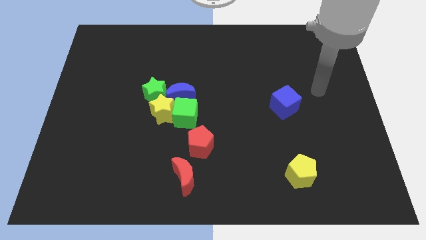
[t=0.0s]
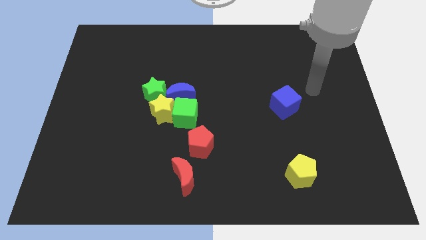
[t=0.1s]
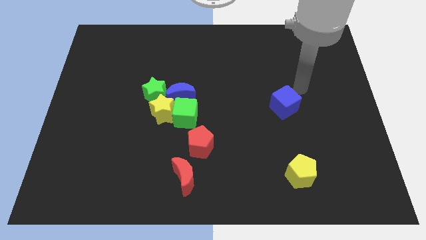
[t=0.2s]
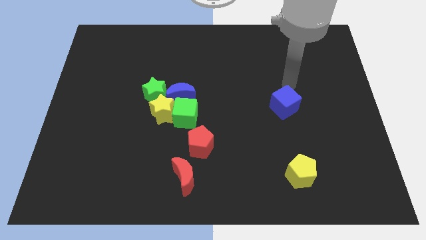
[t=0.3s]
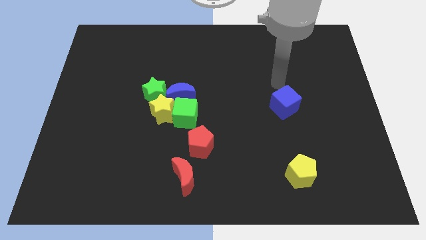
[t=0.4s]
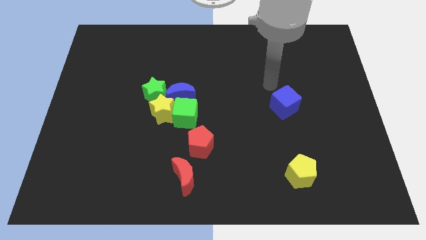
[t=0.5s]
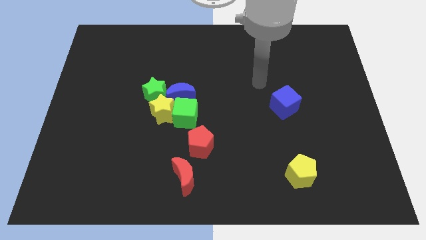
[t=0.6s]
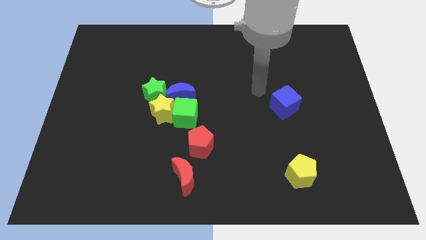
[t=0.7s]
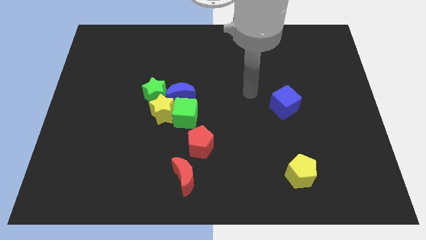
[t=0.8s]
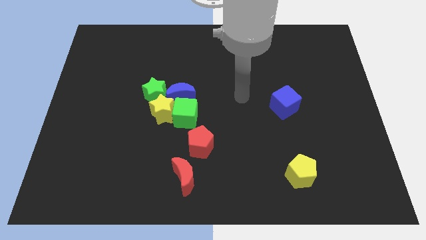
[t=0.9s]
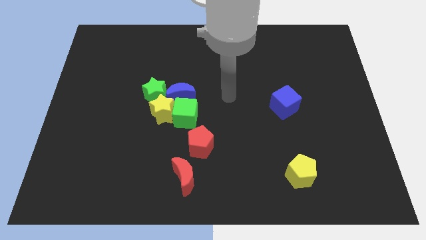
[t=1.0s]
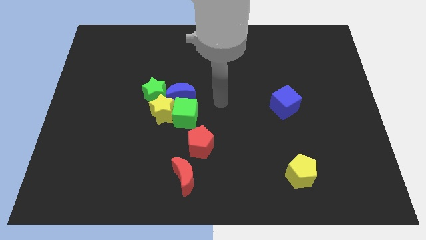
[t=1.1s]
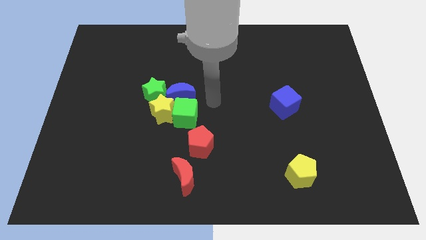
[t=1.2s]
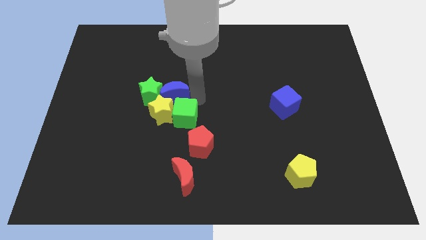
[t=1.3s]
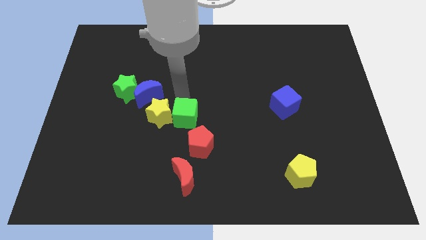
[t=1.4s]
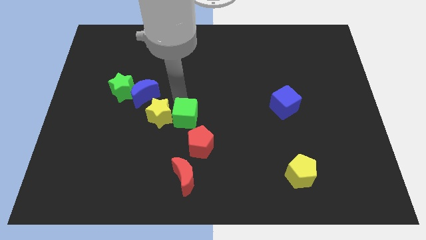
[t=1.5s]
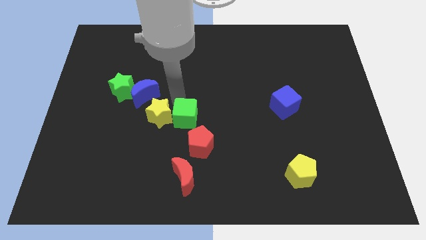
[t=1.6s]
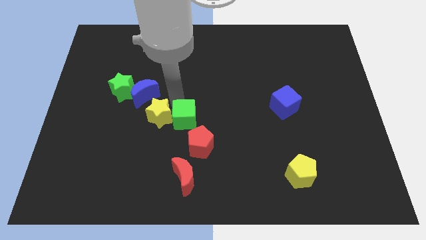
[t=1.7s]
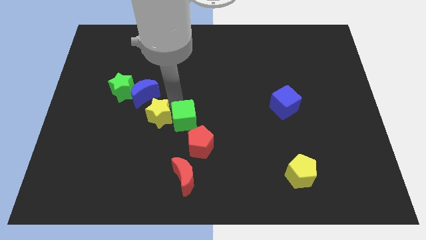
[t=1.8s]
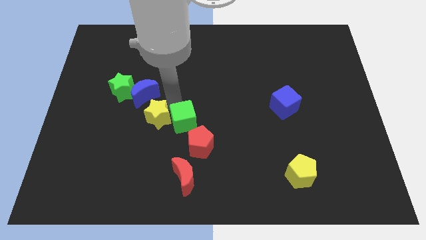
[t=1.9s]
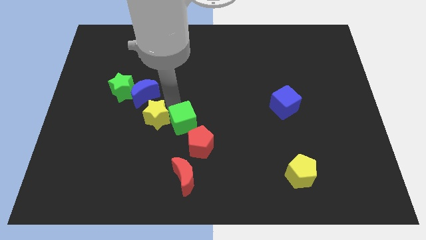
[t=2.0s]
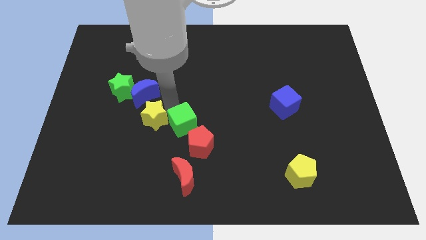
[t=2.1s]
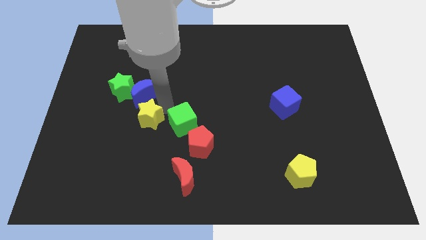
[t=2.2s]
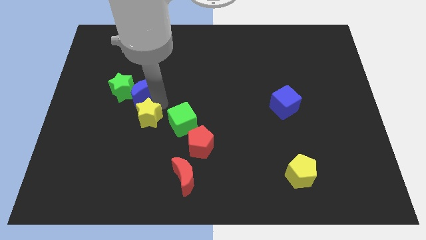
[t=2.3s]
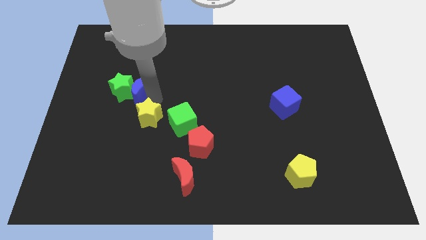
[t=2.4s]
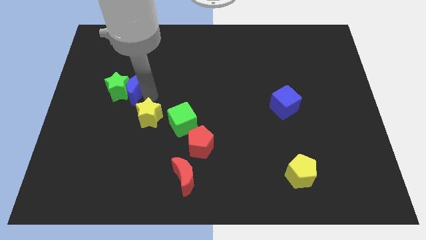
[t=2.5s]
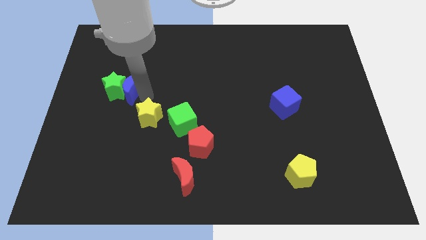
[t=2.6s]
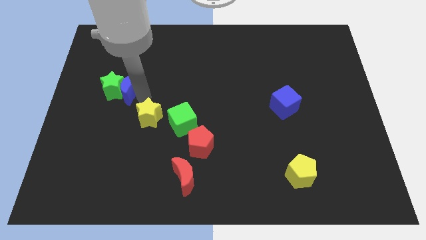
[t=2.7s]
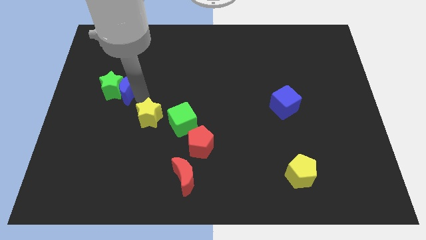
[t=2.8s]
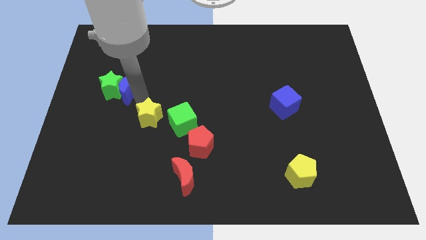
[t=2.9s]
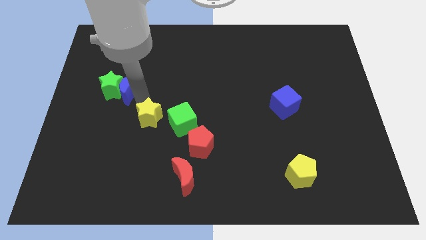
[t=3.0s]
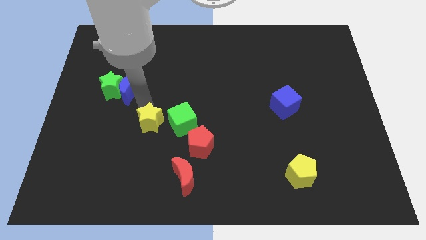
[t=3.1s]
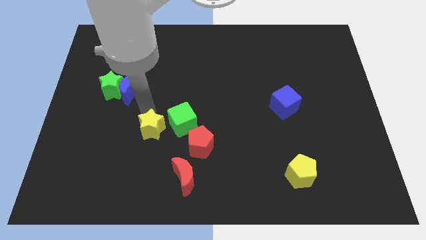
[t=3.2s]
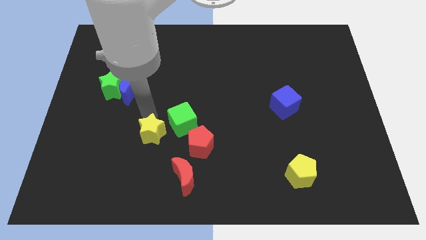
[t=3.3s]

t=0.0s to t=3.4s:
move the yellow star away from the green cube, green star, and blue moon

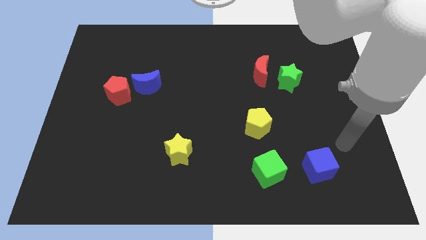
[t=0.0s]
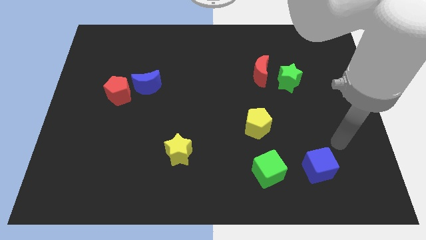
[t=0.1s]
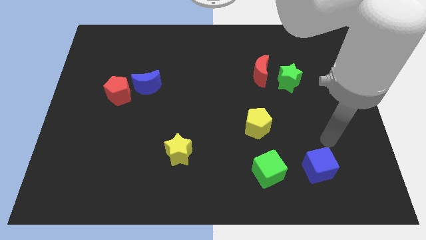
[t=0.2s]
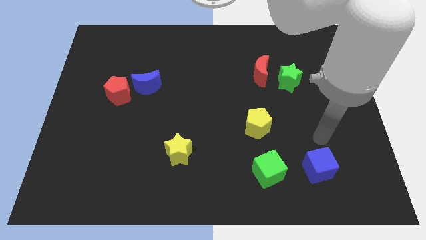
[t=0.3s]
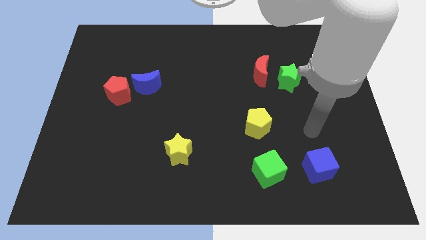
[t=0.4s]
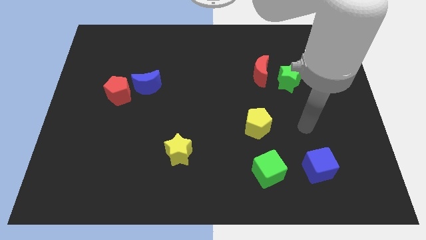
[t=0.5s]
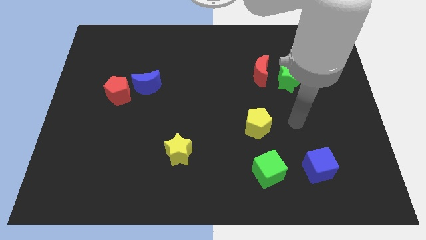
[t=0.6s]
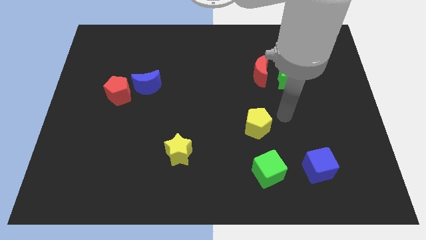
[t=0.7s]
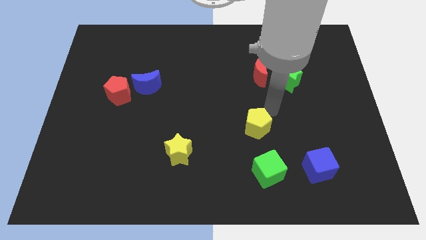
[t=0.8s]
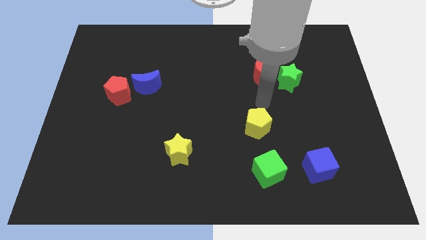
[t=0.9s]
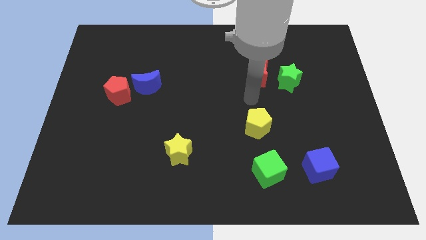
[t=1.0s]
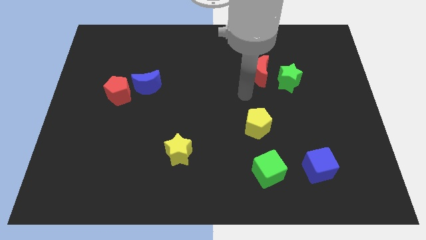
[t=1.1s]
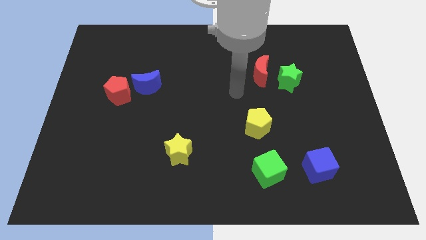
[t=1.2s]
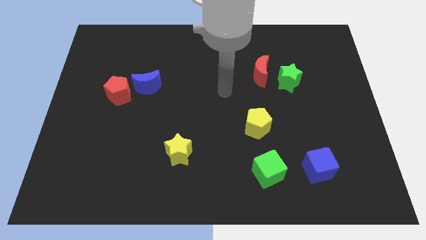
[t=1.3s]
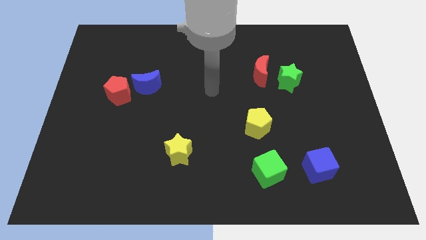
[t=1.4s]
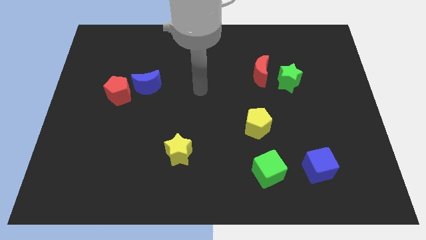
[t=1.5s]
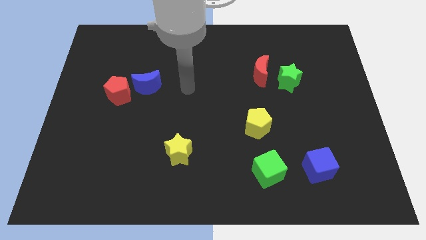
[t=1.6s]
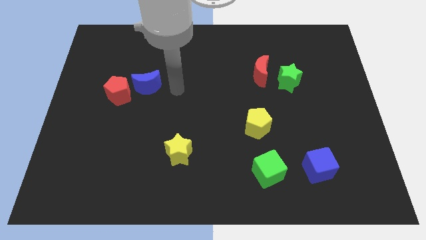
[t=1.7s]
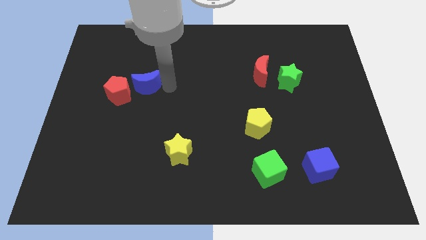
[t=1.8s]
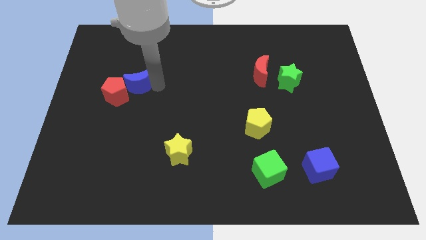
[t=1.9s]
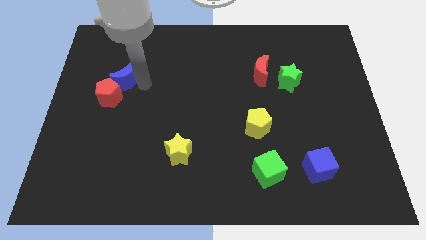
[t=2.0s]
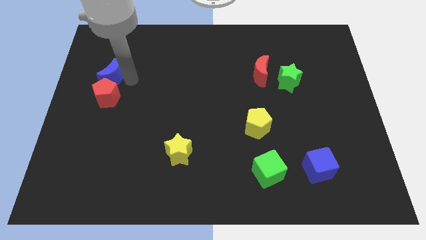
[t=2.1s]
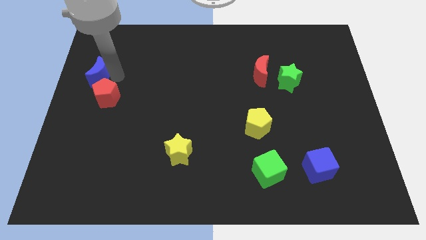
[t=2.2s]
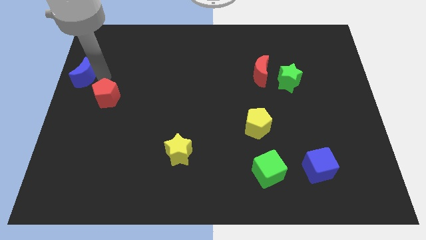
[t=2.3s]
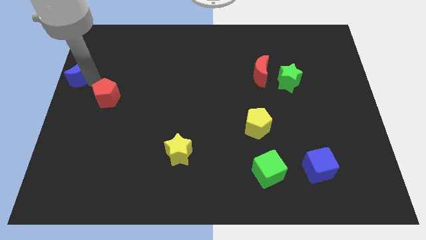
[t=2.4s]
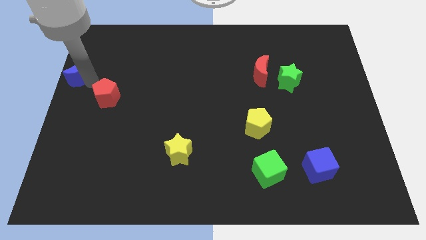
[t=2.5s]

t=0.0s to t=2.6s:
move the red pentagon away from the blue moon

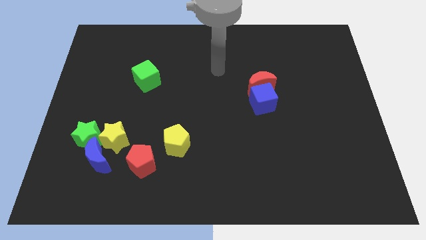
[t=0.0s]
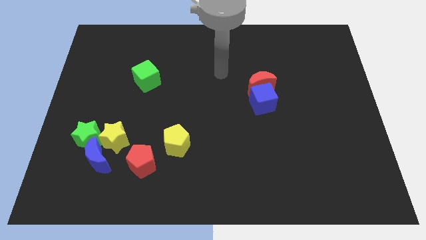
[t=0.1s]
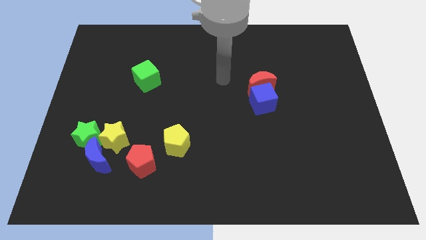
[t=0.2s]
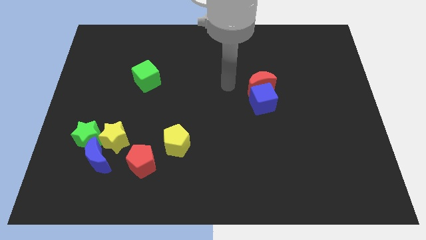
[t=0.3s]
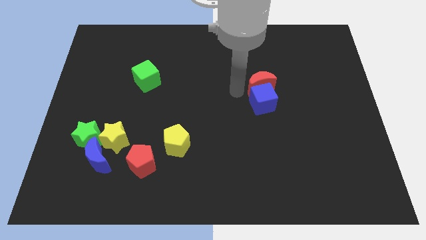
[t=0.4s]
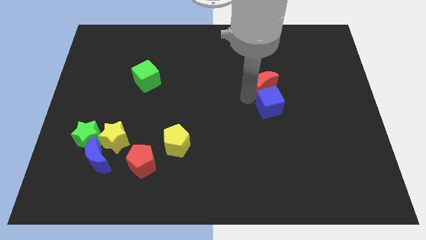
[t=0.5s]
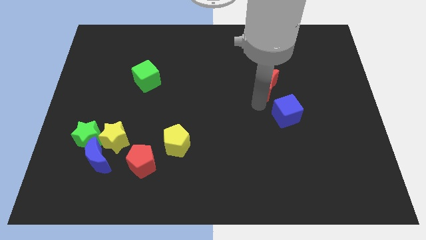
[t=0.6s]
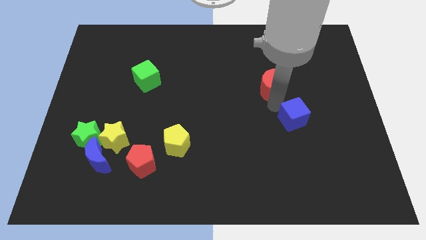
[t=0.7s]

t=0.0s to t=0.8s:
separate the red moon from the blue cube

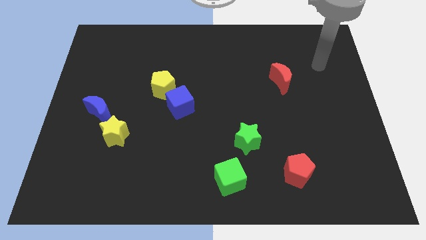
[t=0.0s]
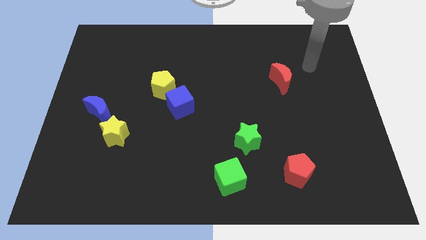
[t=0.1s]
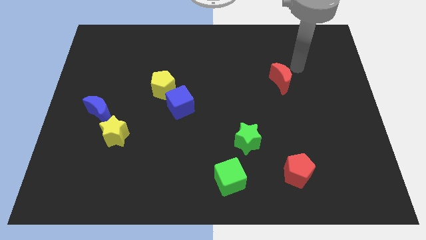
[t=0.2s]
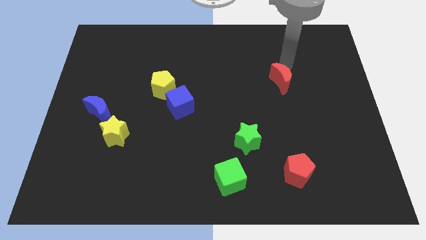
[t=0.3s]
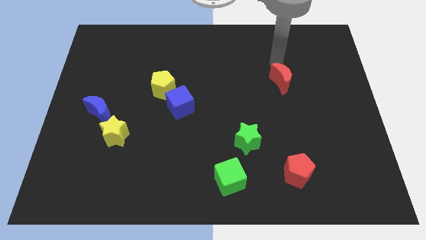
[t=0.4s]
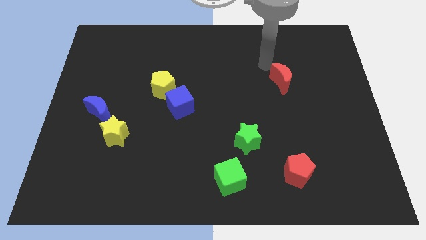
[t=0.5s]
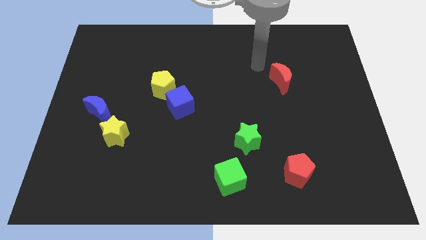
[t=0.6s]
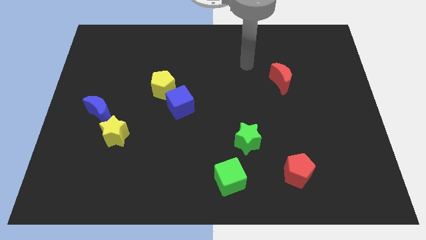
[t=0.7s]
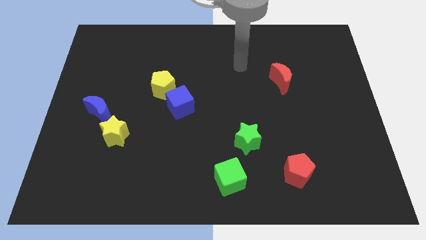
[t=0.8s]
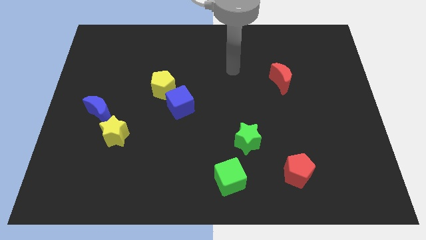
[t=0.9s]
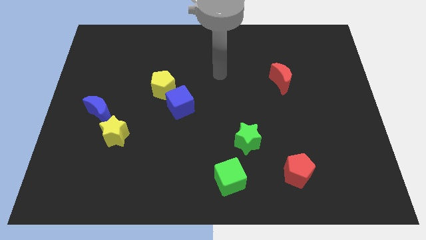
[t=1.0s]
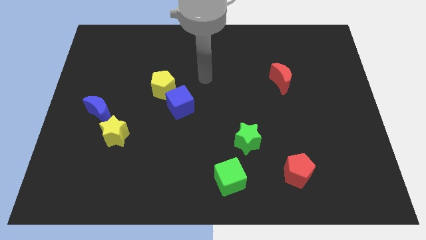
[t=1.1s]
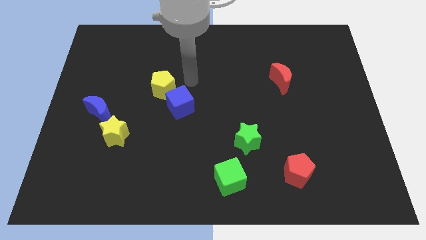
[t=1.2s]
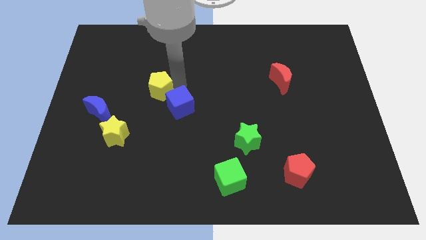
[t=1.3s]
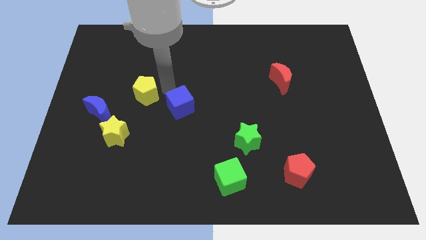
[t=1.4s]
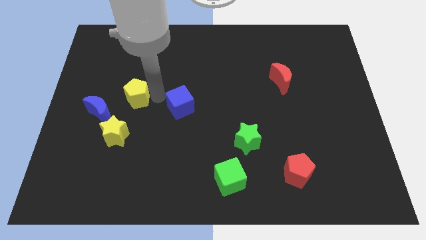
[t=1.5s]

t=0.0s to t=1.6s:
pull the blue cube apart from the yellow pentagon

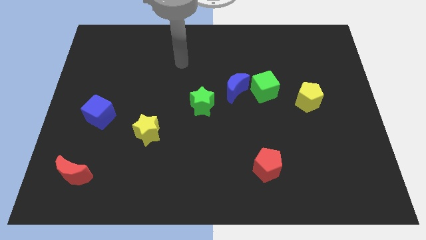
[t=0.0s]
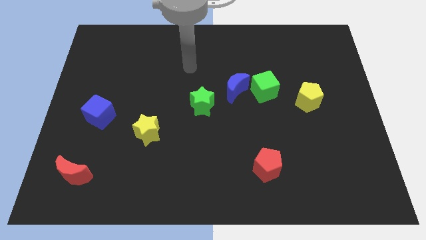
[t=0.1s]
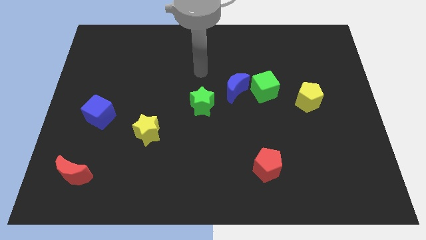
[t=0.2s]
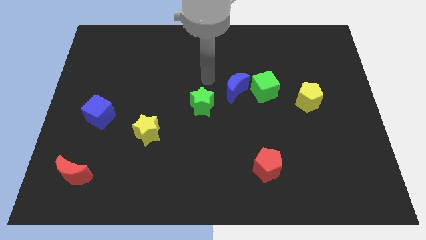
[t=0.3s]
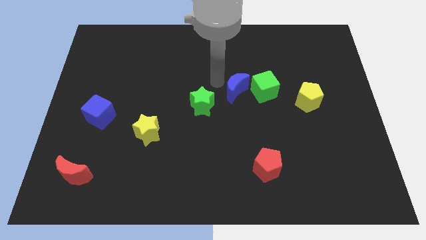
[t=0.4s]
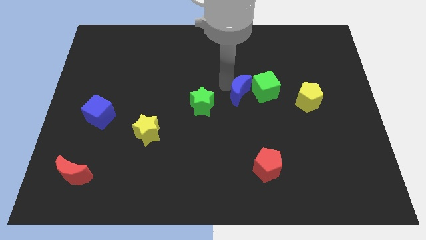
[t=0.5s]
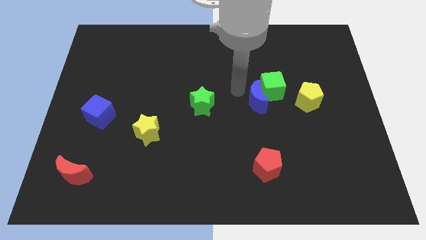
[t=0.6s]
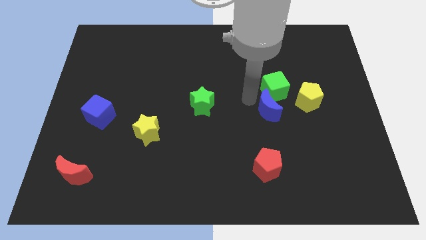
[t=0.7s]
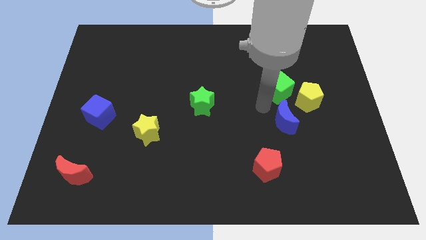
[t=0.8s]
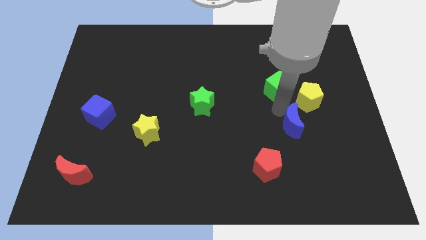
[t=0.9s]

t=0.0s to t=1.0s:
separate the green cube from the blue moon
